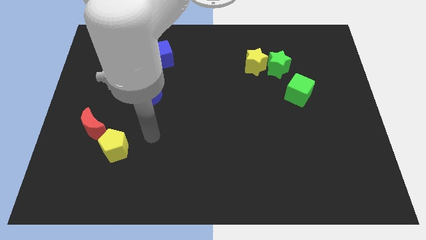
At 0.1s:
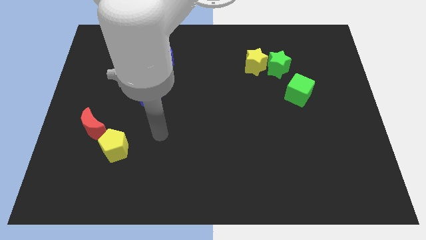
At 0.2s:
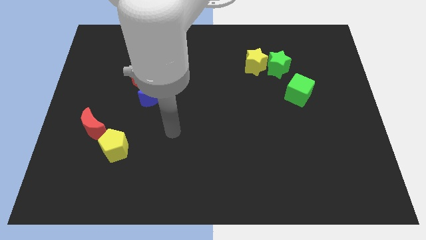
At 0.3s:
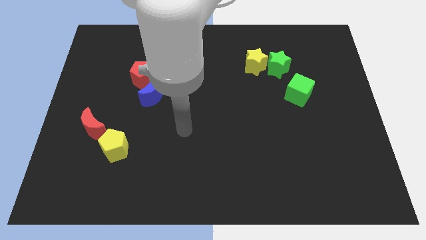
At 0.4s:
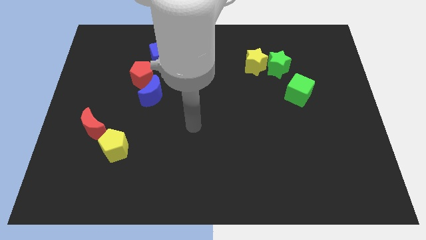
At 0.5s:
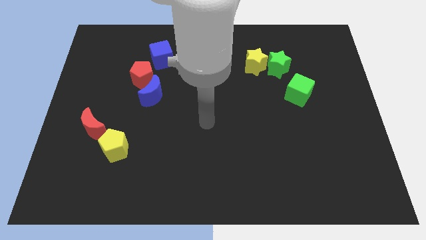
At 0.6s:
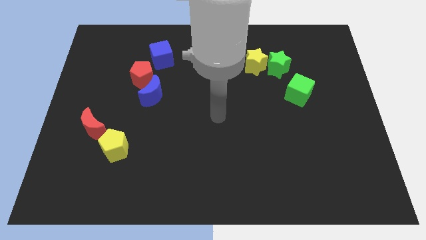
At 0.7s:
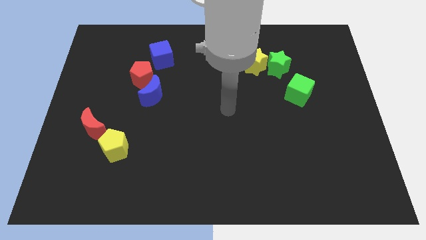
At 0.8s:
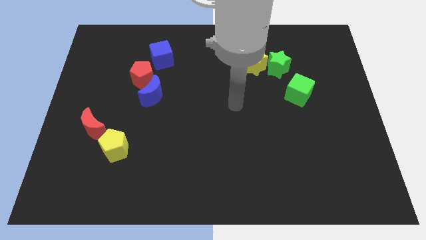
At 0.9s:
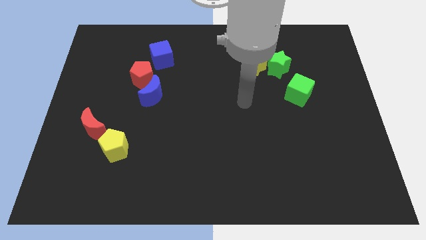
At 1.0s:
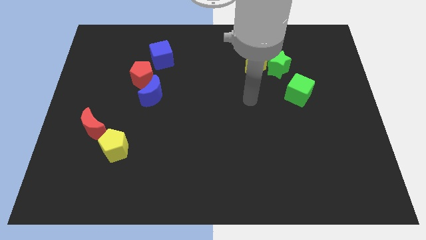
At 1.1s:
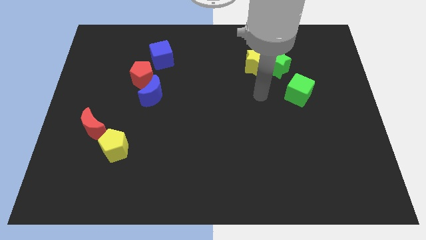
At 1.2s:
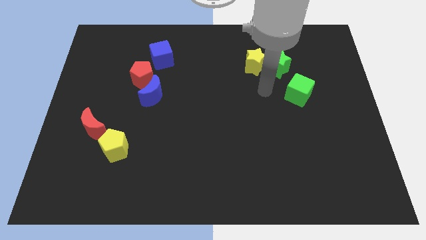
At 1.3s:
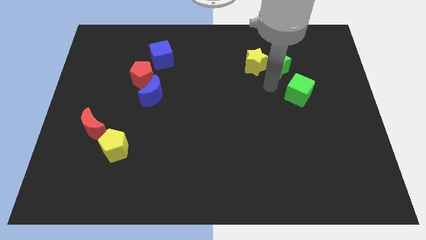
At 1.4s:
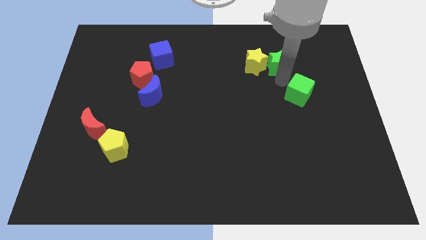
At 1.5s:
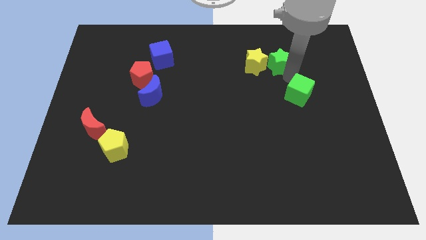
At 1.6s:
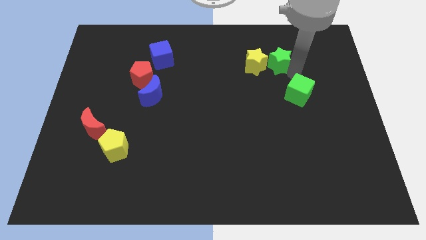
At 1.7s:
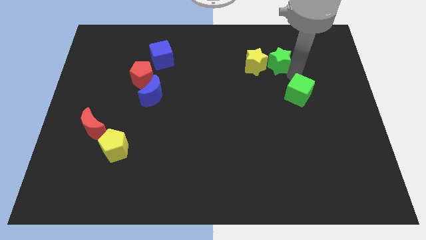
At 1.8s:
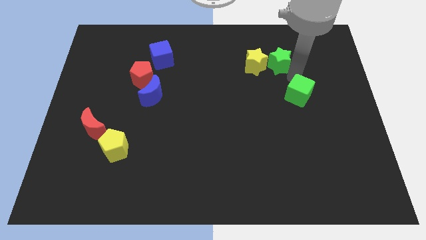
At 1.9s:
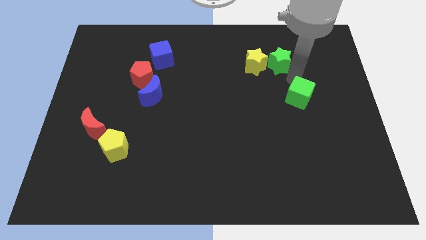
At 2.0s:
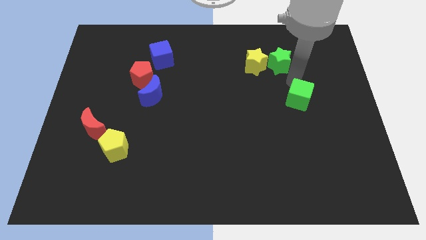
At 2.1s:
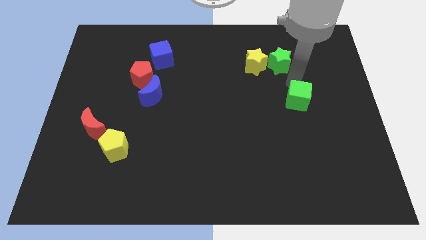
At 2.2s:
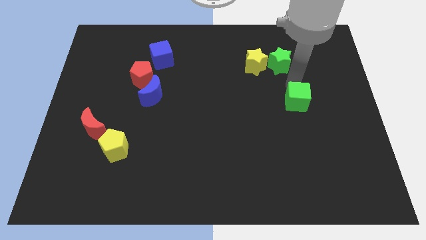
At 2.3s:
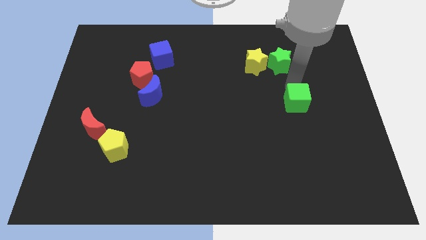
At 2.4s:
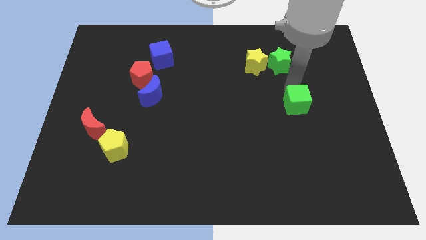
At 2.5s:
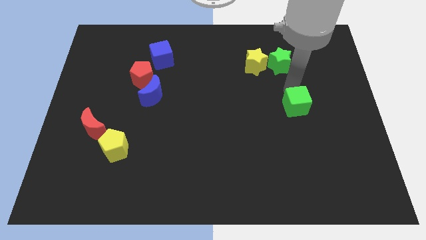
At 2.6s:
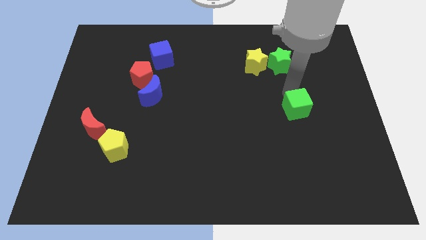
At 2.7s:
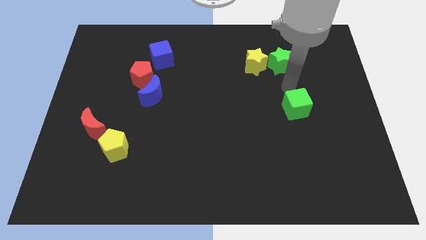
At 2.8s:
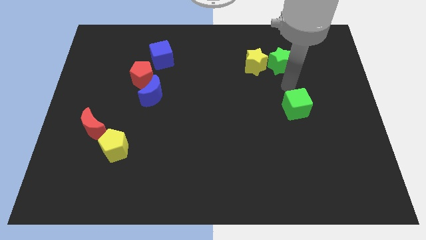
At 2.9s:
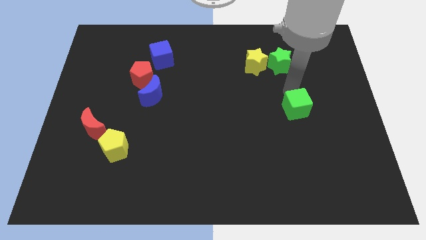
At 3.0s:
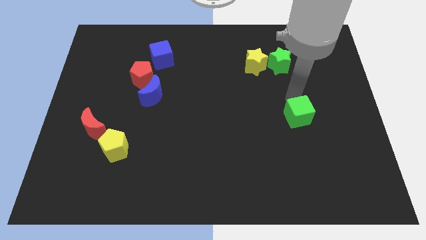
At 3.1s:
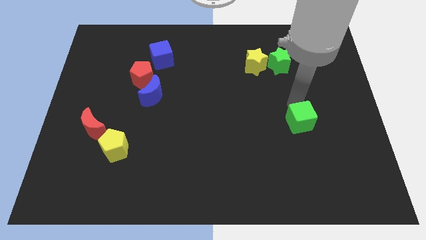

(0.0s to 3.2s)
move the green cube slightly down

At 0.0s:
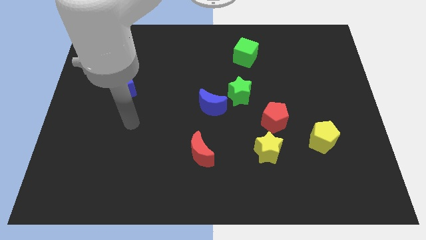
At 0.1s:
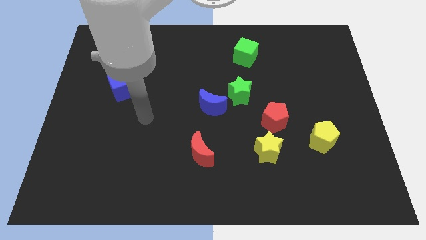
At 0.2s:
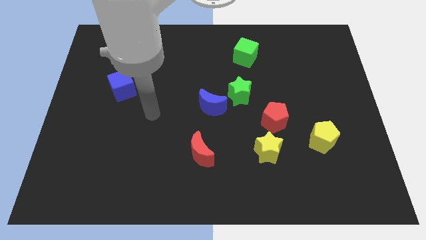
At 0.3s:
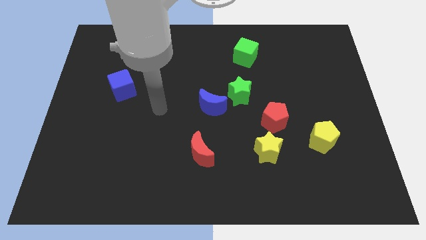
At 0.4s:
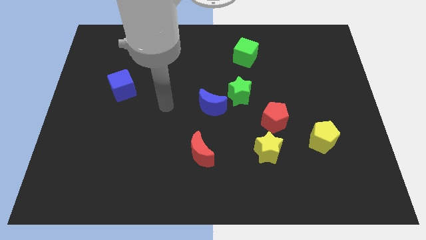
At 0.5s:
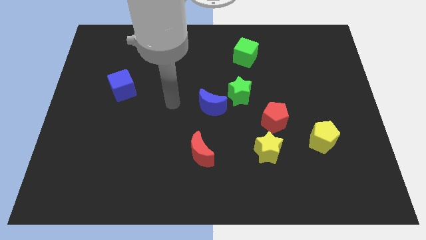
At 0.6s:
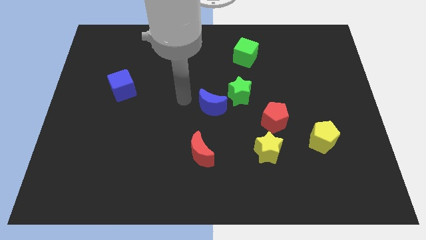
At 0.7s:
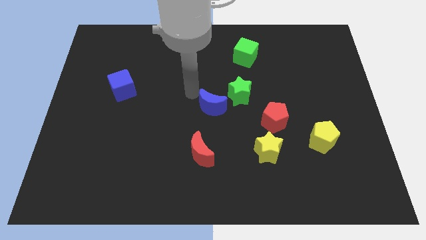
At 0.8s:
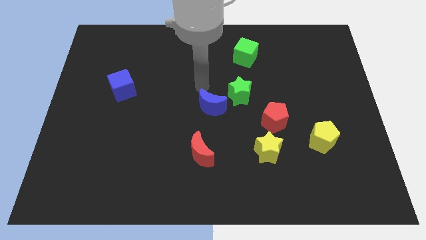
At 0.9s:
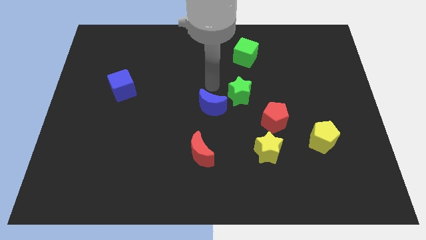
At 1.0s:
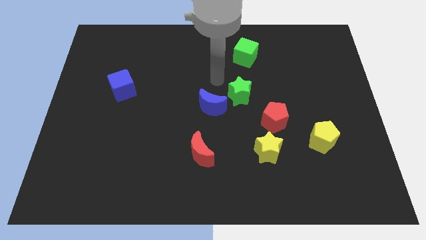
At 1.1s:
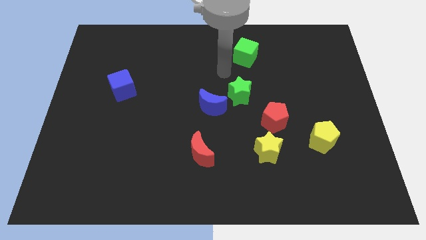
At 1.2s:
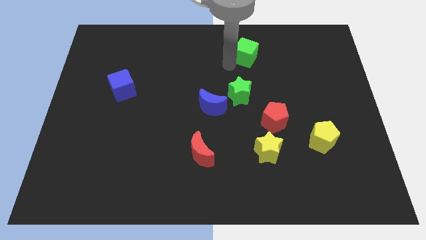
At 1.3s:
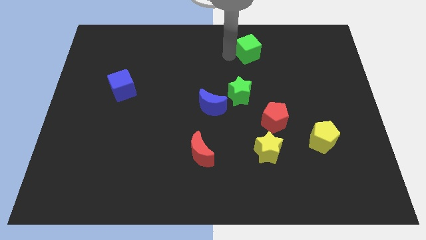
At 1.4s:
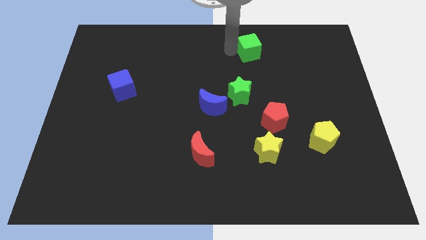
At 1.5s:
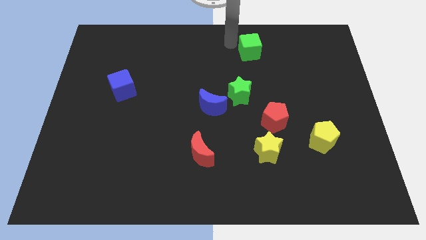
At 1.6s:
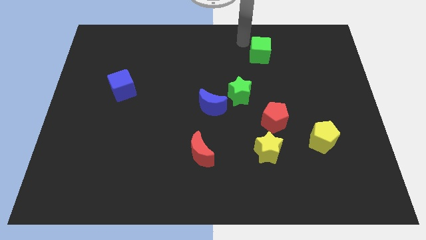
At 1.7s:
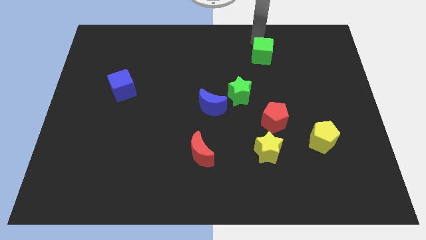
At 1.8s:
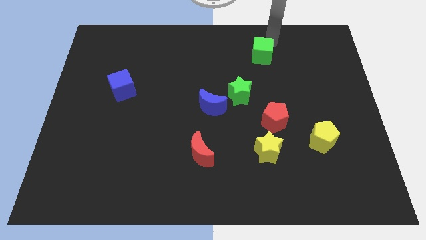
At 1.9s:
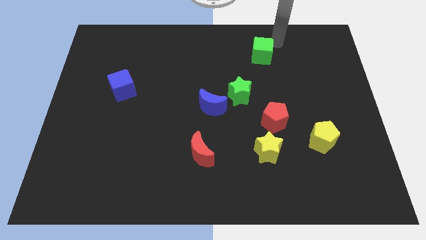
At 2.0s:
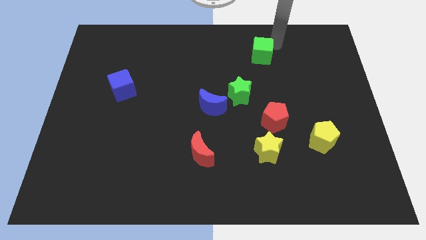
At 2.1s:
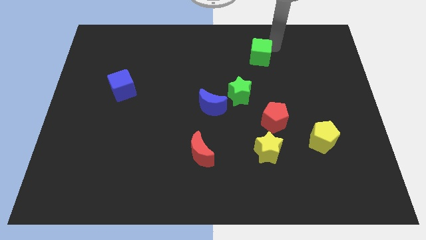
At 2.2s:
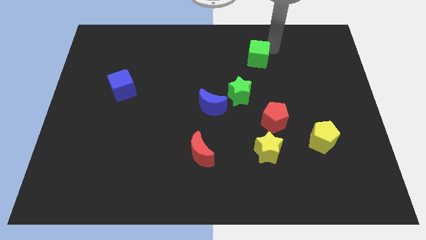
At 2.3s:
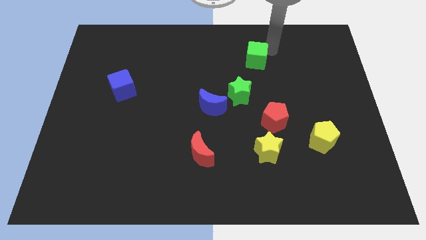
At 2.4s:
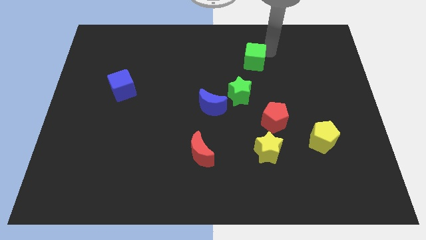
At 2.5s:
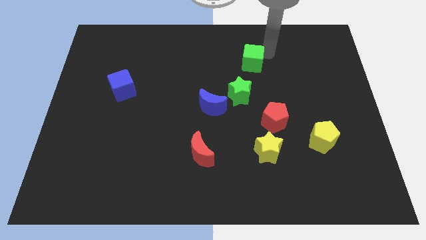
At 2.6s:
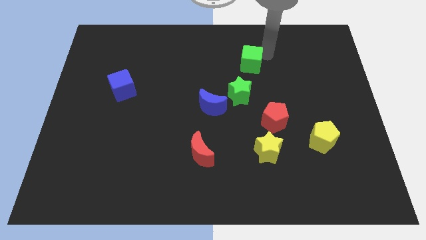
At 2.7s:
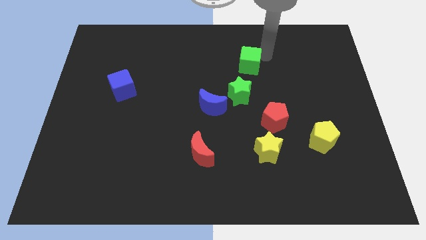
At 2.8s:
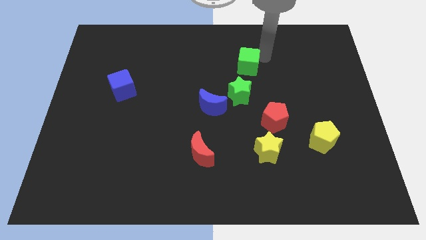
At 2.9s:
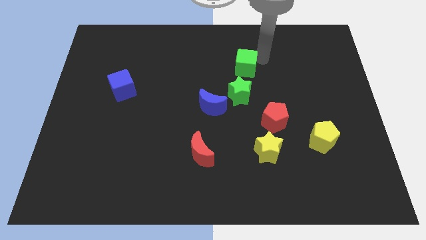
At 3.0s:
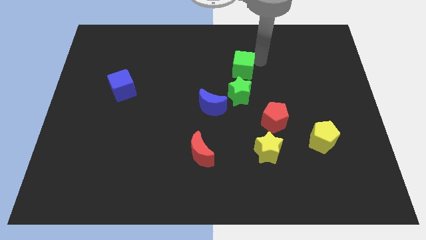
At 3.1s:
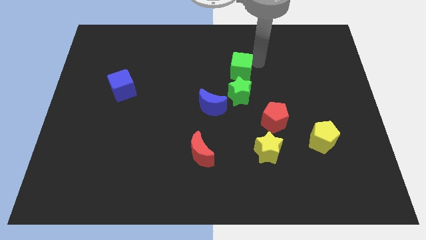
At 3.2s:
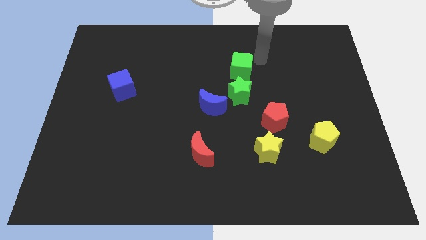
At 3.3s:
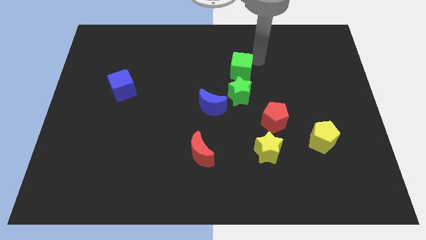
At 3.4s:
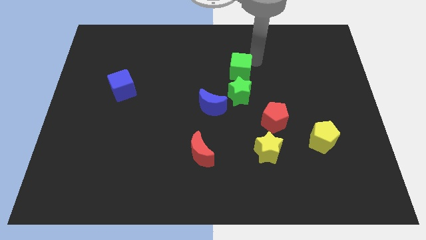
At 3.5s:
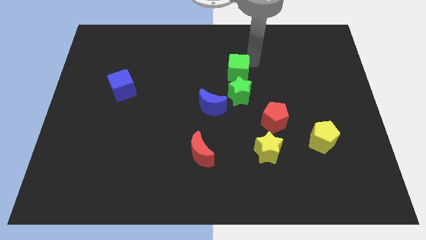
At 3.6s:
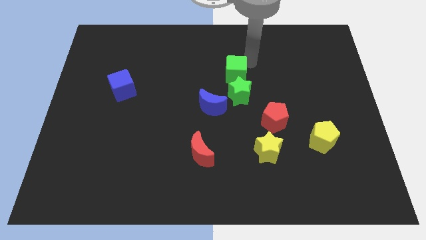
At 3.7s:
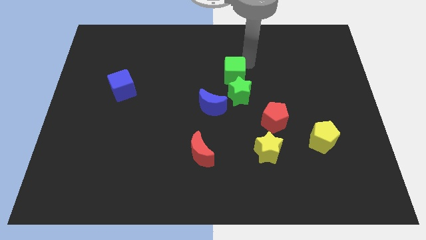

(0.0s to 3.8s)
move the green cube somewhat down and left

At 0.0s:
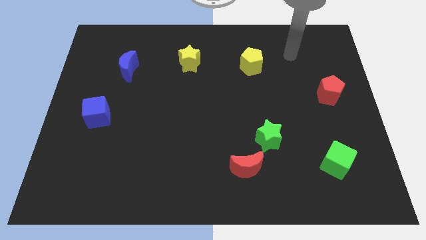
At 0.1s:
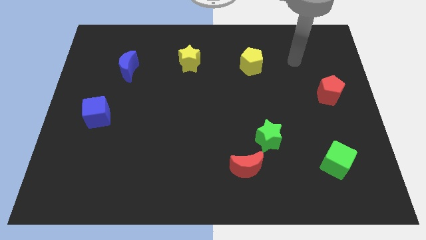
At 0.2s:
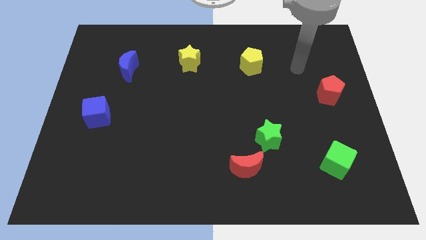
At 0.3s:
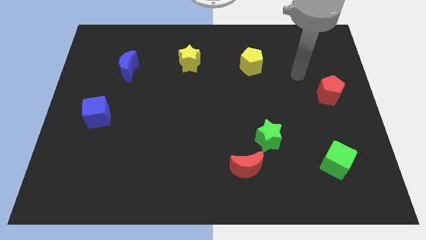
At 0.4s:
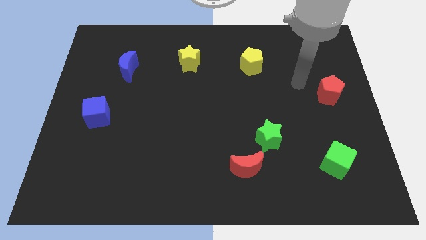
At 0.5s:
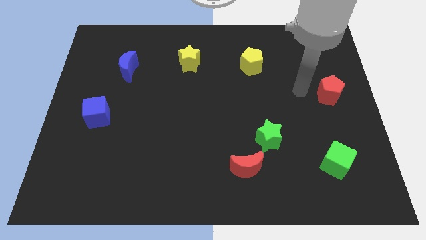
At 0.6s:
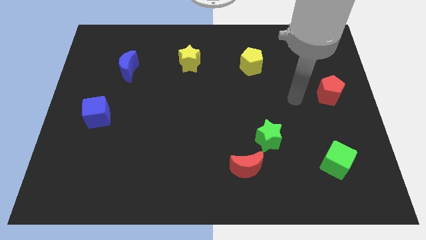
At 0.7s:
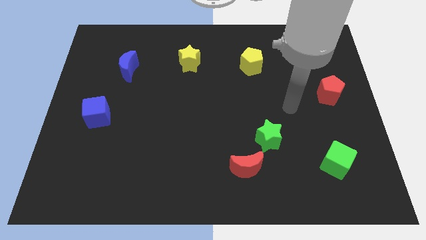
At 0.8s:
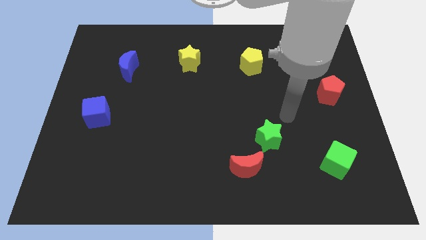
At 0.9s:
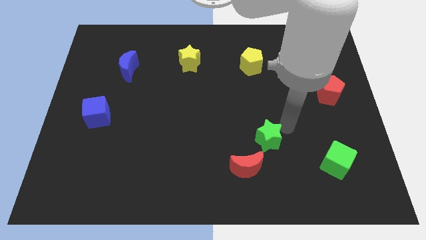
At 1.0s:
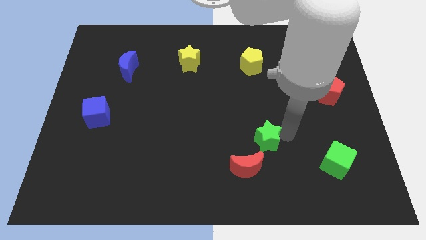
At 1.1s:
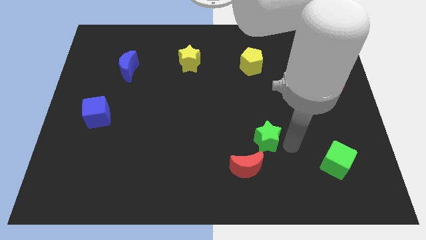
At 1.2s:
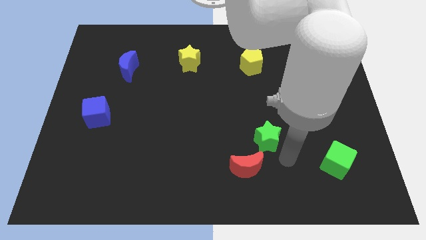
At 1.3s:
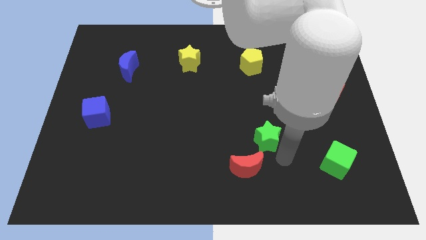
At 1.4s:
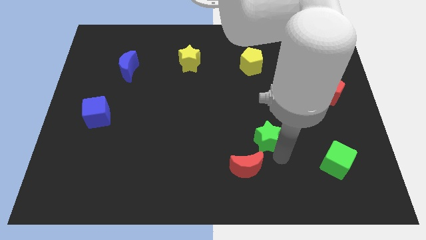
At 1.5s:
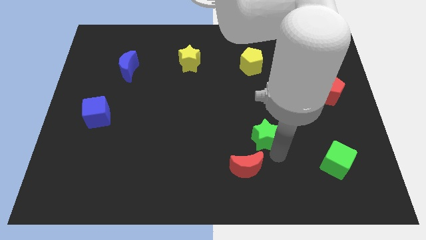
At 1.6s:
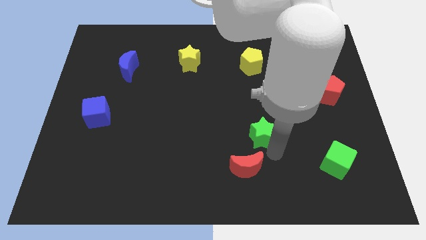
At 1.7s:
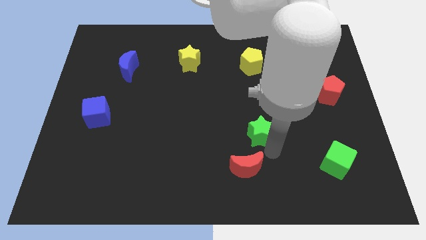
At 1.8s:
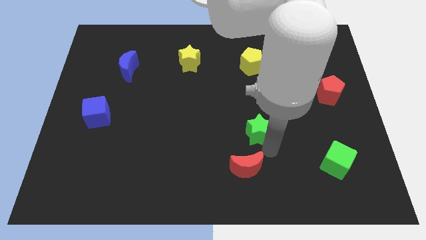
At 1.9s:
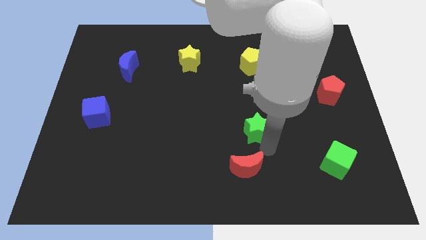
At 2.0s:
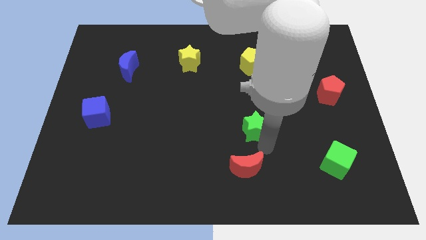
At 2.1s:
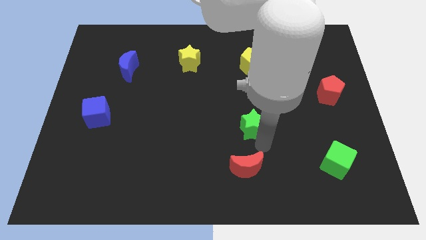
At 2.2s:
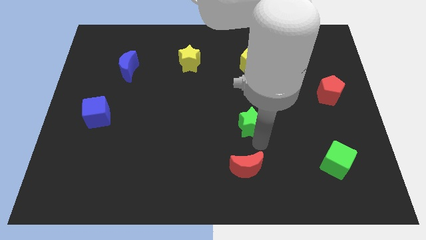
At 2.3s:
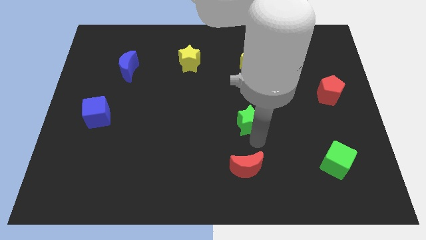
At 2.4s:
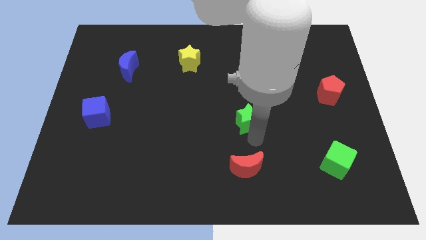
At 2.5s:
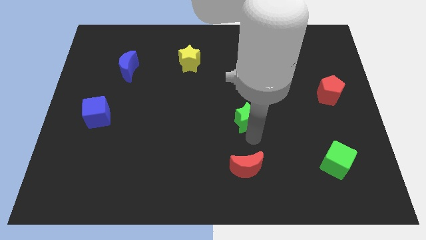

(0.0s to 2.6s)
slightly move the green star up and to the left
